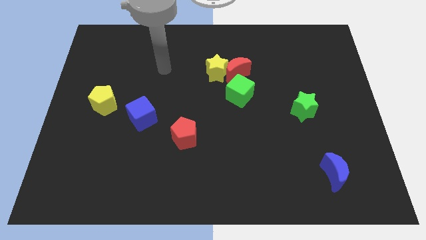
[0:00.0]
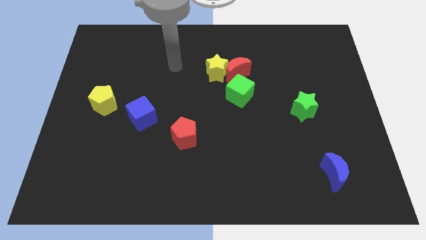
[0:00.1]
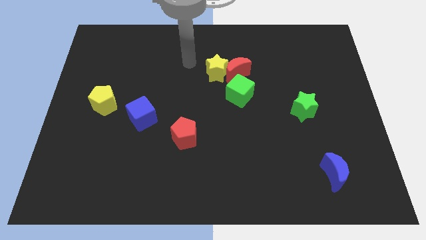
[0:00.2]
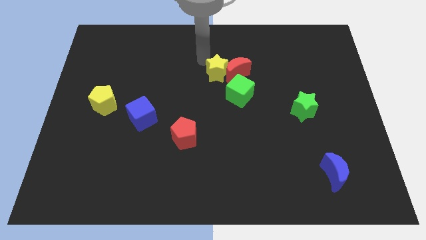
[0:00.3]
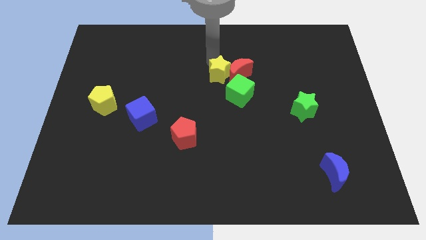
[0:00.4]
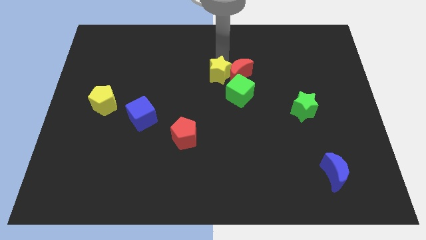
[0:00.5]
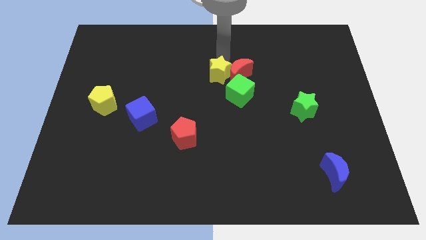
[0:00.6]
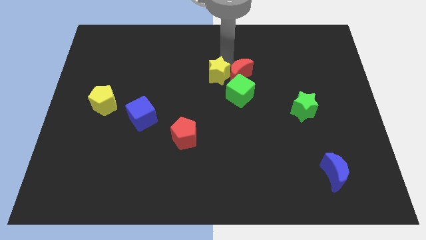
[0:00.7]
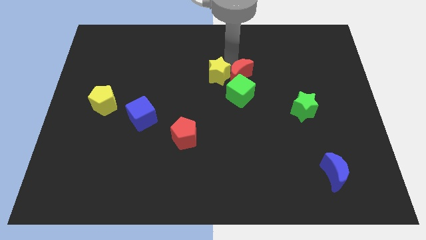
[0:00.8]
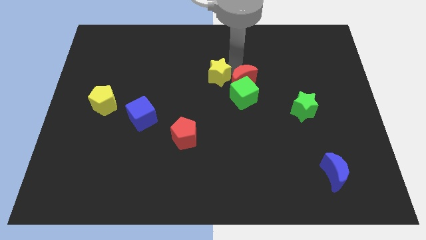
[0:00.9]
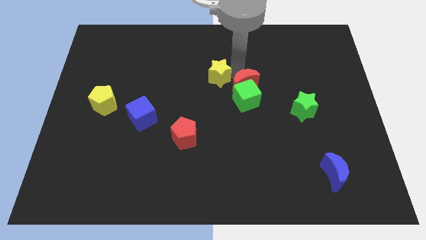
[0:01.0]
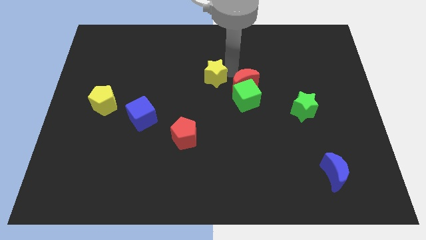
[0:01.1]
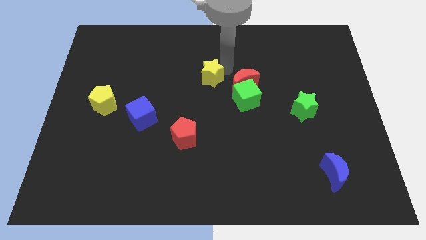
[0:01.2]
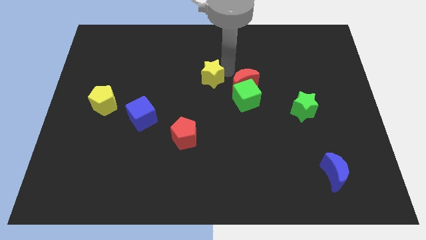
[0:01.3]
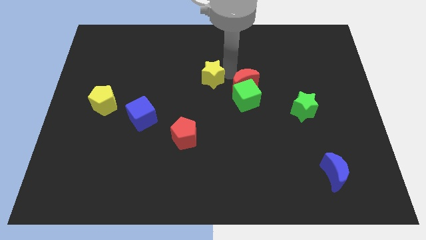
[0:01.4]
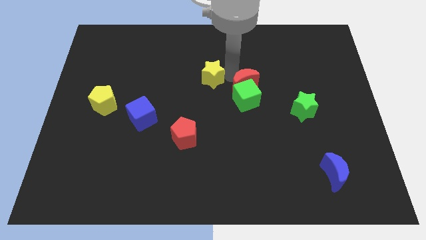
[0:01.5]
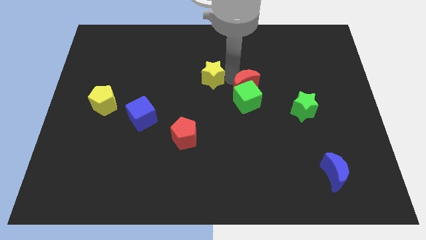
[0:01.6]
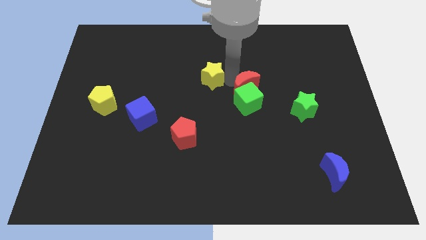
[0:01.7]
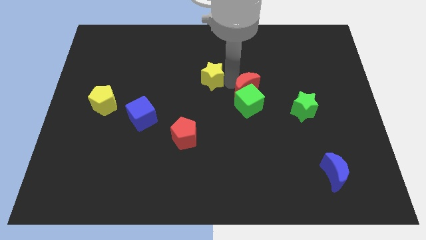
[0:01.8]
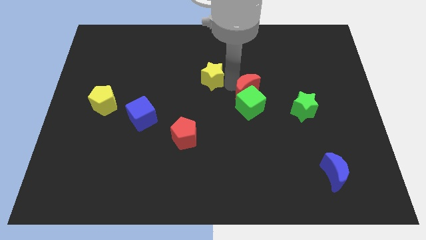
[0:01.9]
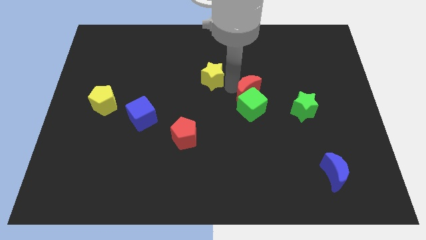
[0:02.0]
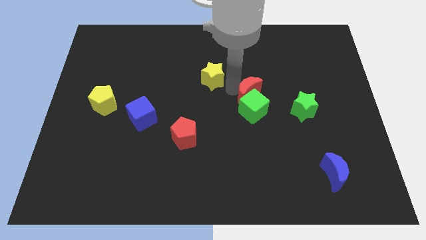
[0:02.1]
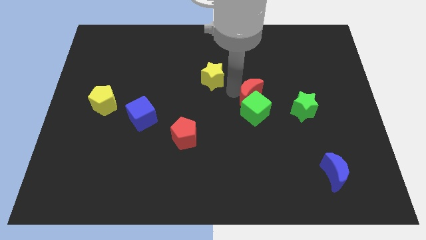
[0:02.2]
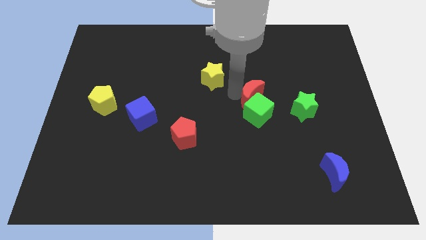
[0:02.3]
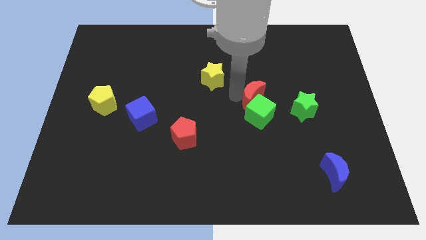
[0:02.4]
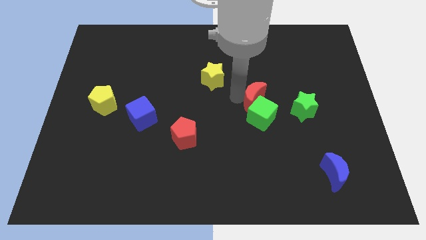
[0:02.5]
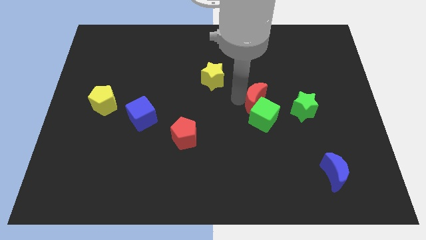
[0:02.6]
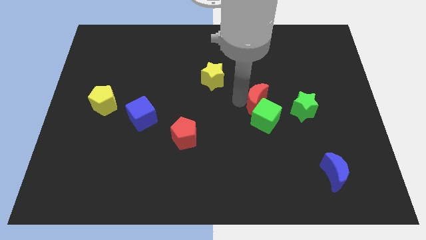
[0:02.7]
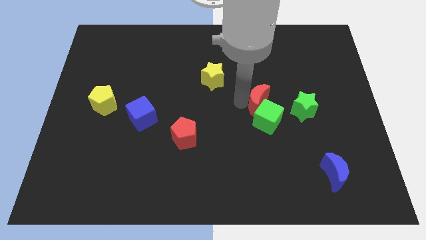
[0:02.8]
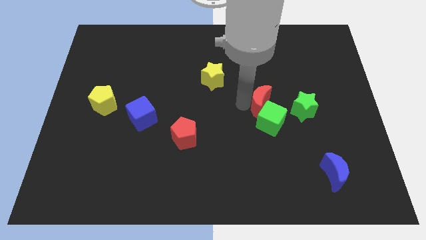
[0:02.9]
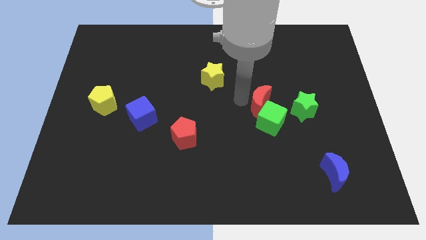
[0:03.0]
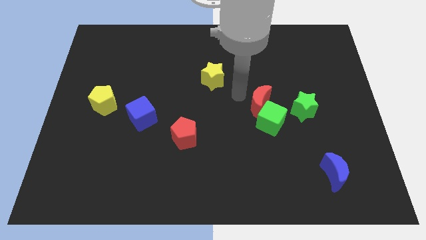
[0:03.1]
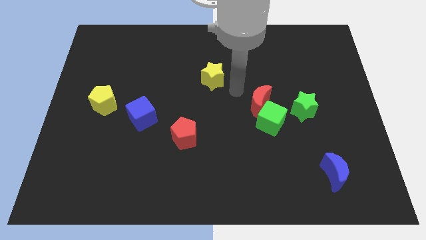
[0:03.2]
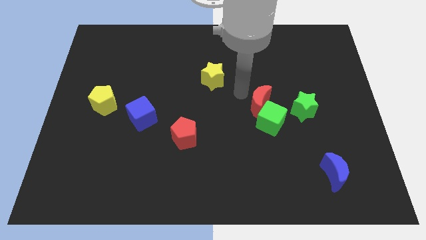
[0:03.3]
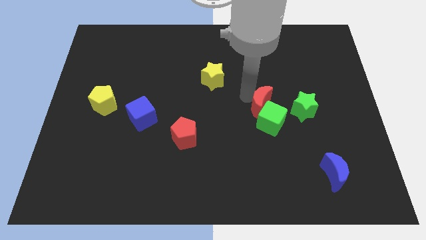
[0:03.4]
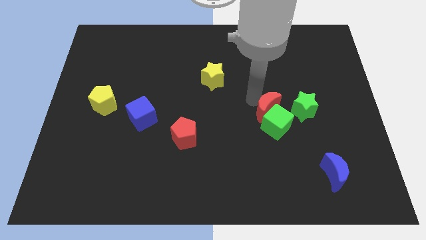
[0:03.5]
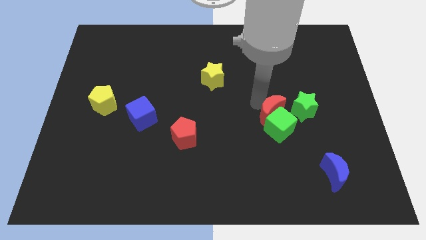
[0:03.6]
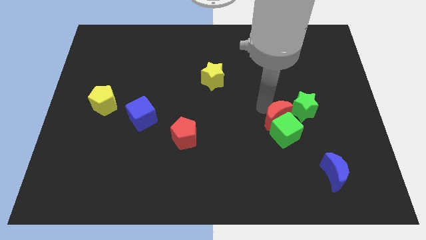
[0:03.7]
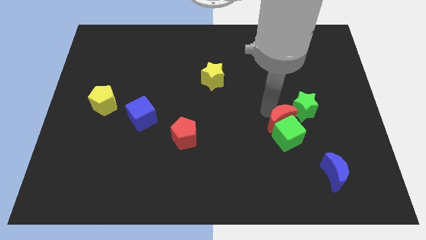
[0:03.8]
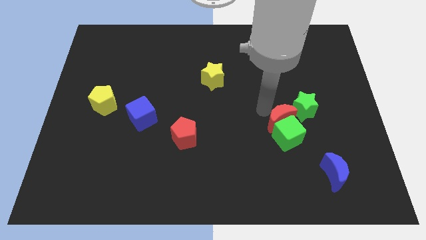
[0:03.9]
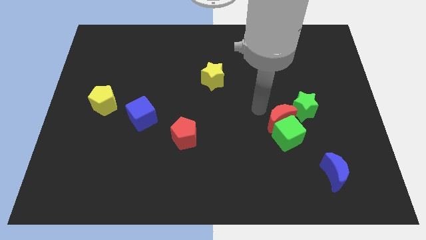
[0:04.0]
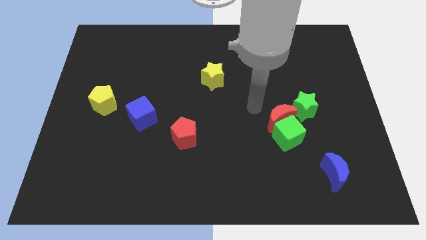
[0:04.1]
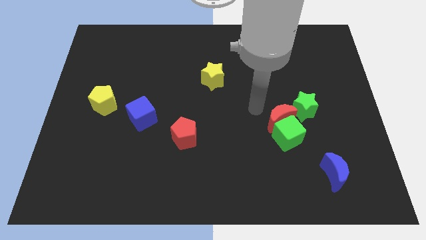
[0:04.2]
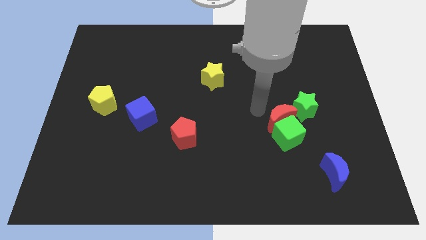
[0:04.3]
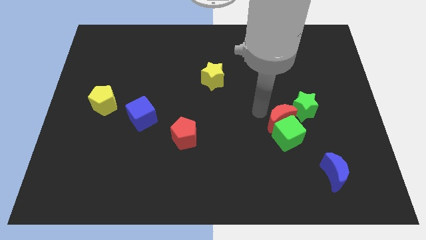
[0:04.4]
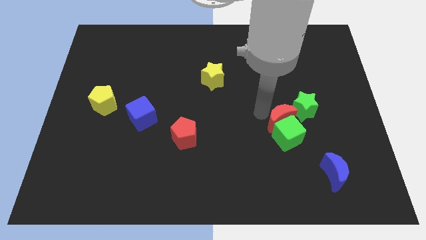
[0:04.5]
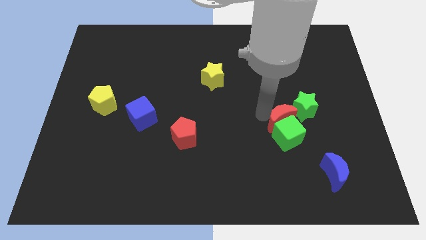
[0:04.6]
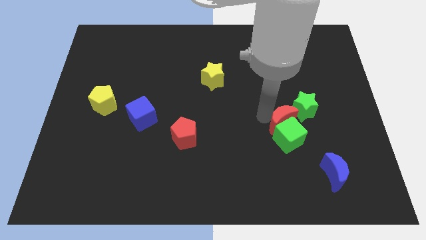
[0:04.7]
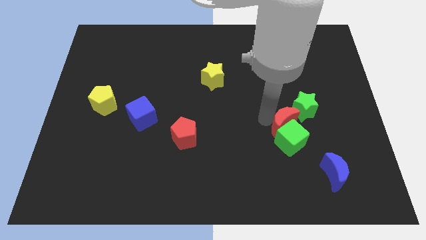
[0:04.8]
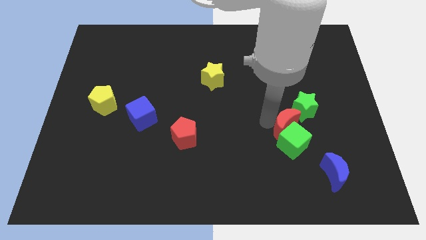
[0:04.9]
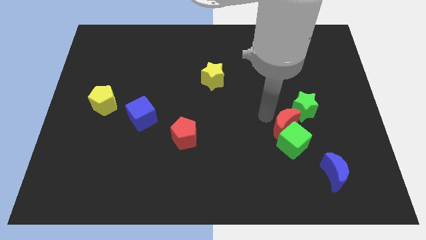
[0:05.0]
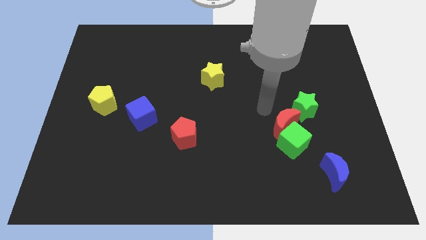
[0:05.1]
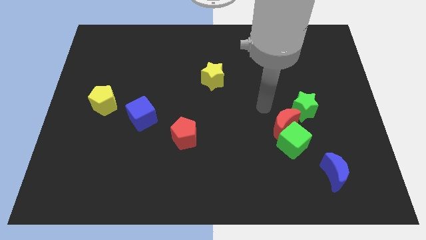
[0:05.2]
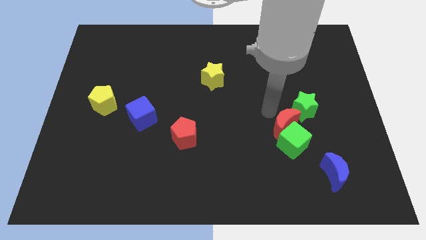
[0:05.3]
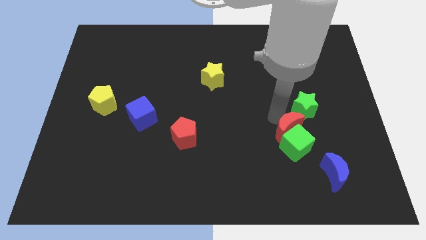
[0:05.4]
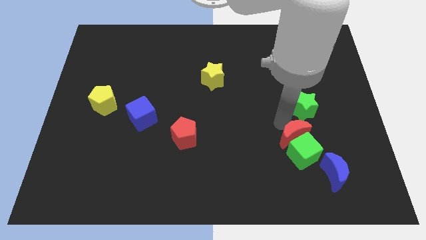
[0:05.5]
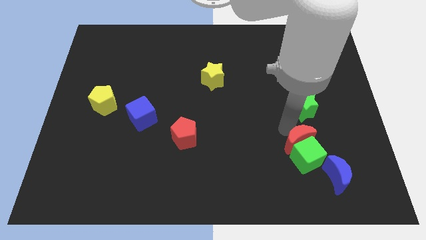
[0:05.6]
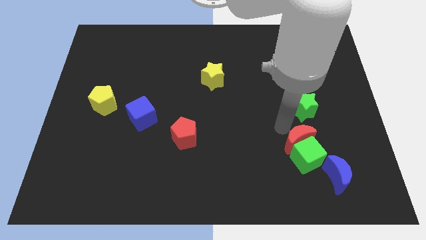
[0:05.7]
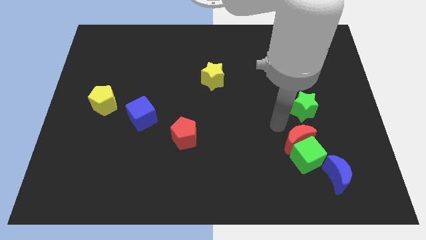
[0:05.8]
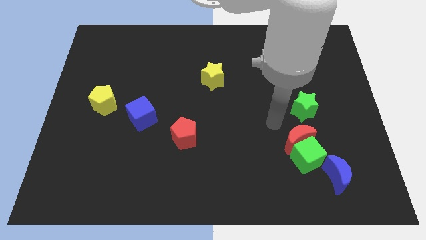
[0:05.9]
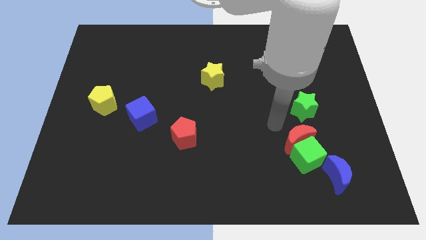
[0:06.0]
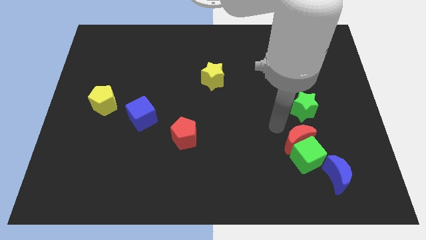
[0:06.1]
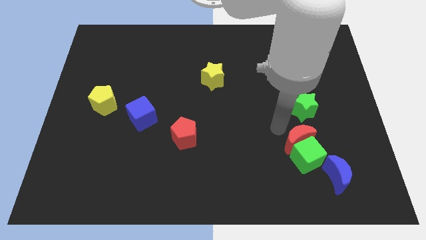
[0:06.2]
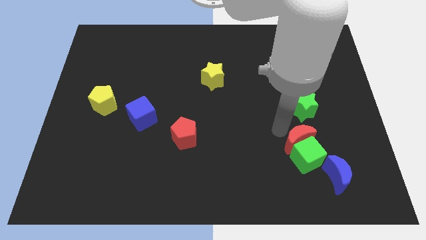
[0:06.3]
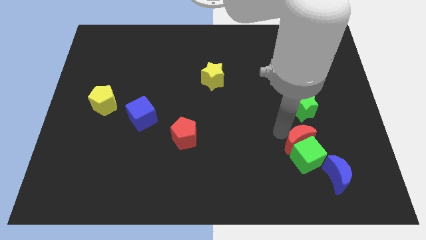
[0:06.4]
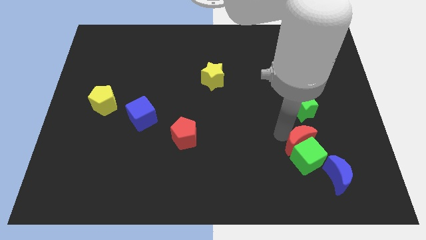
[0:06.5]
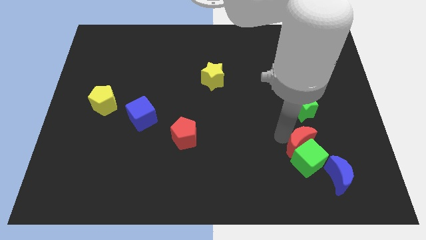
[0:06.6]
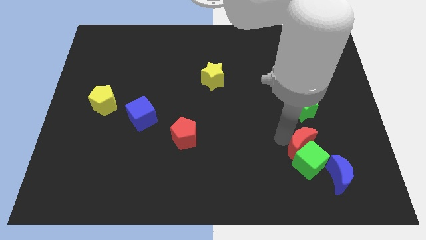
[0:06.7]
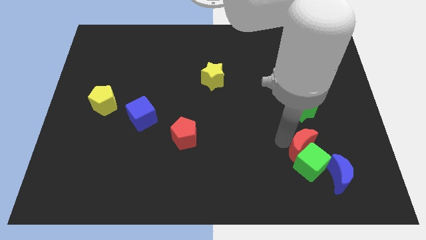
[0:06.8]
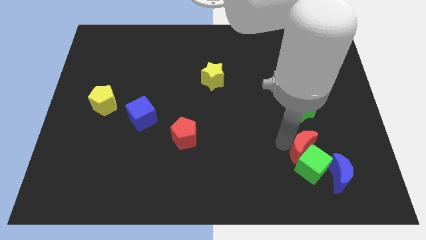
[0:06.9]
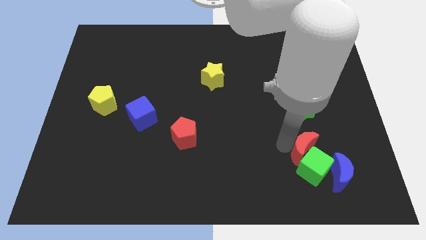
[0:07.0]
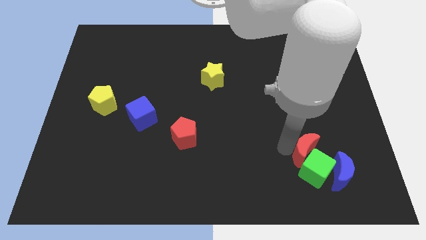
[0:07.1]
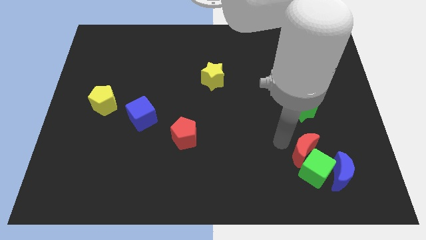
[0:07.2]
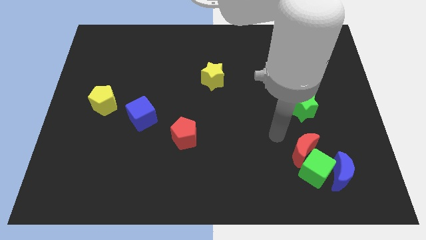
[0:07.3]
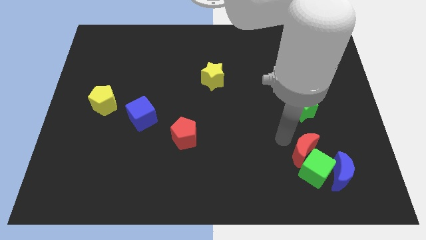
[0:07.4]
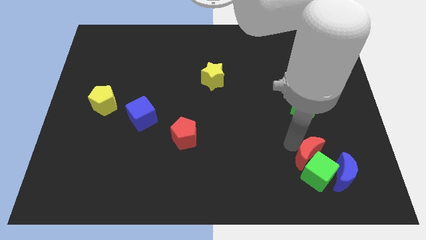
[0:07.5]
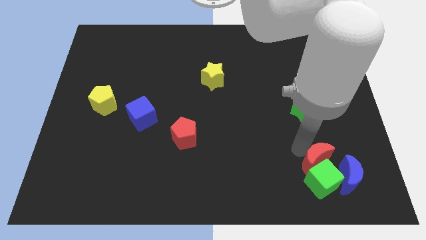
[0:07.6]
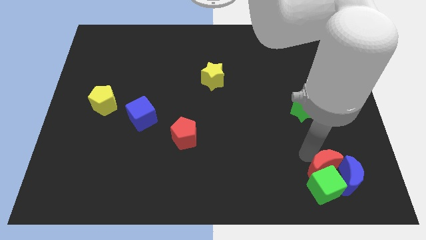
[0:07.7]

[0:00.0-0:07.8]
slide the red moon towards the blue moon
